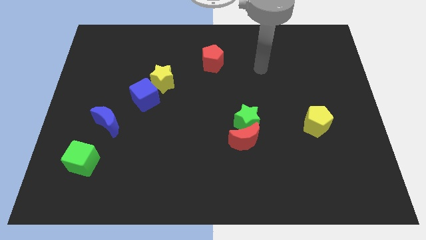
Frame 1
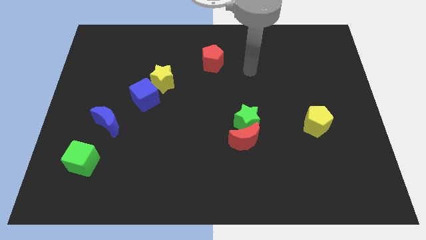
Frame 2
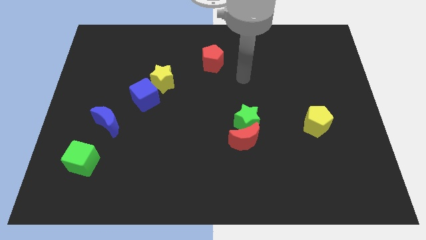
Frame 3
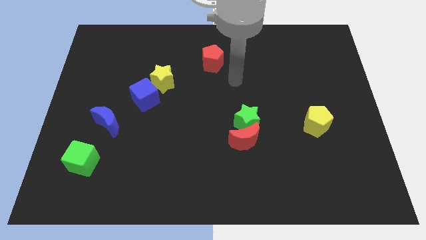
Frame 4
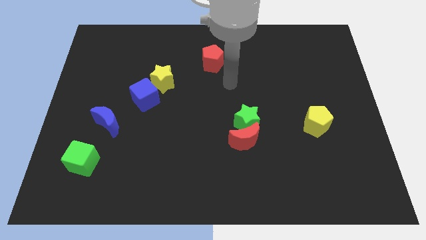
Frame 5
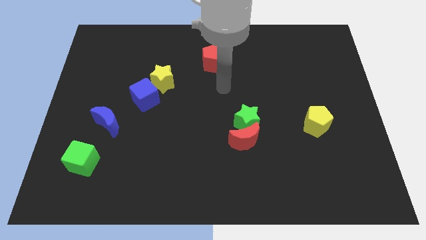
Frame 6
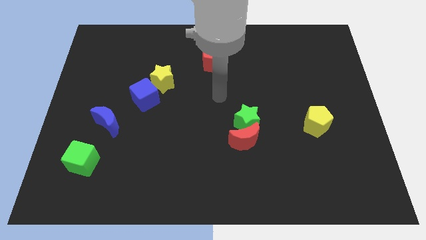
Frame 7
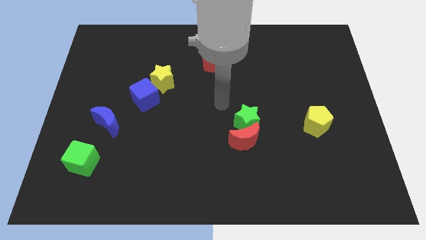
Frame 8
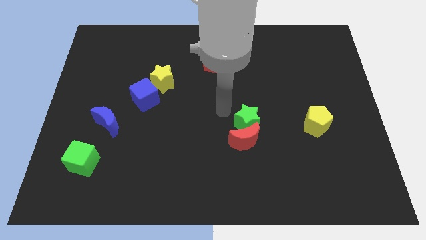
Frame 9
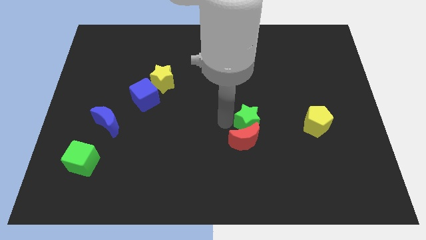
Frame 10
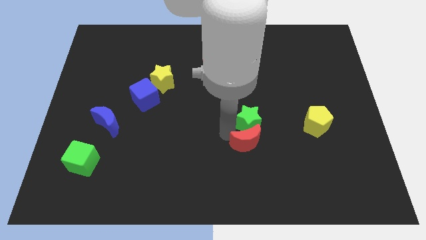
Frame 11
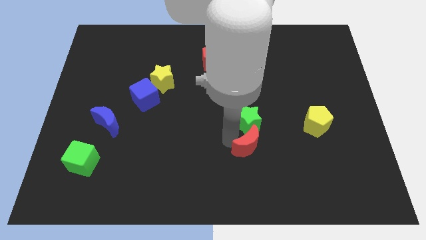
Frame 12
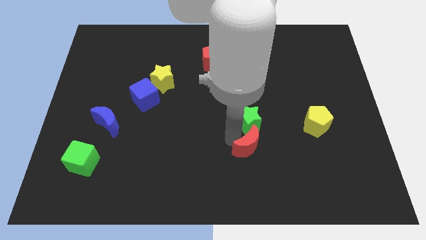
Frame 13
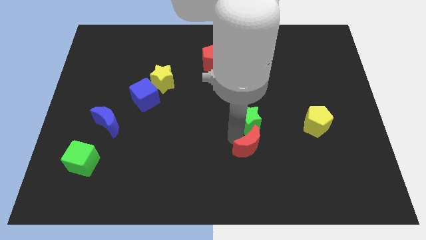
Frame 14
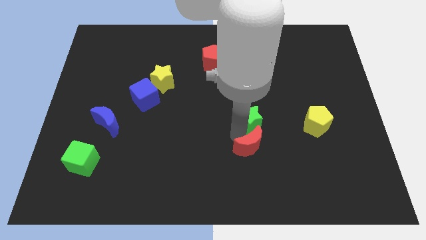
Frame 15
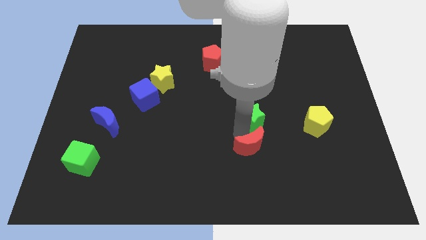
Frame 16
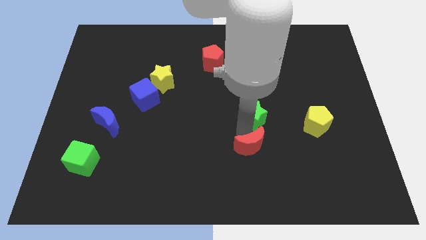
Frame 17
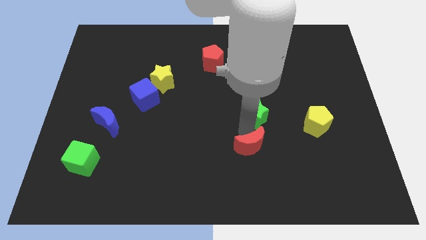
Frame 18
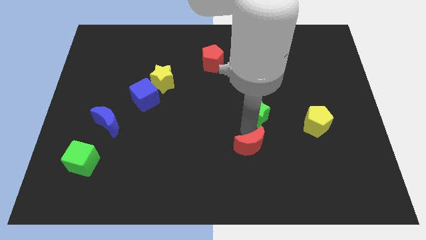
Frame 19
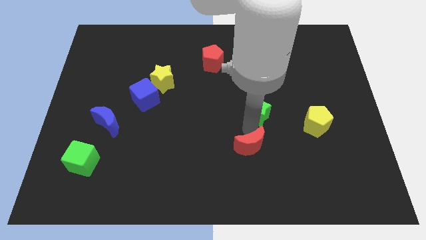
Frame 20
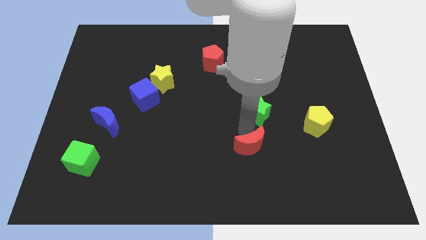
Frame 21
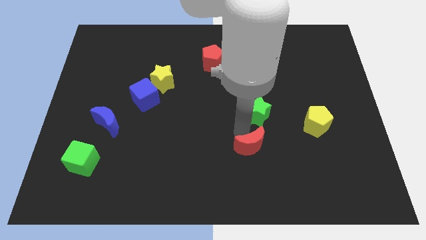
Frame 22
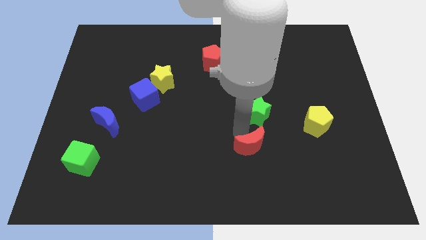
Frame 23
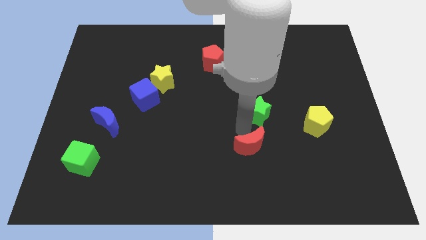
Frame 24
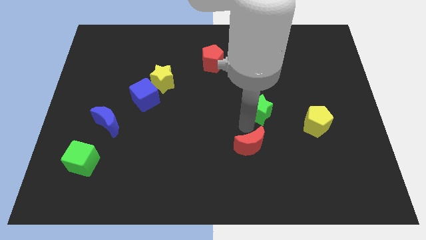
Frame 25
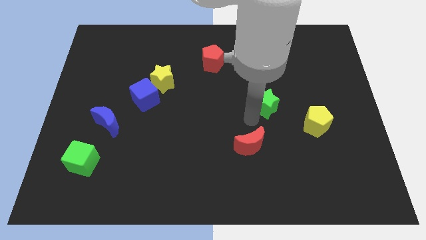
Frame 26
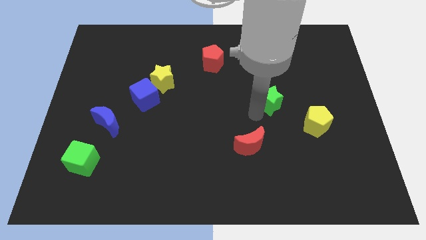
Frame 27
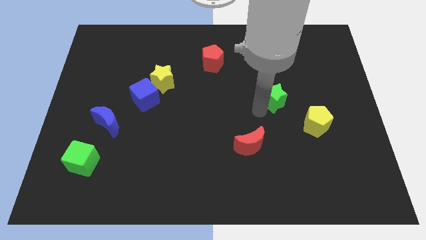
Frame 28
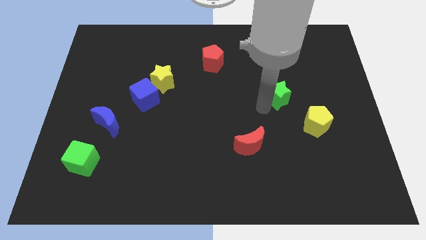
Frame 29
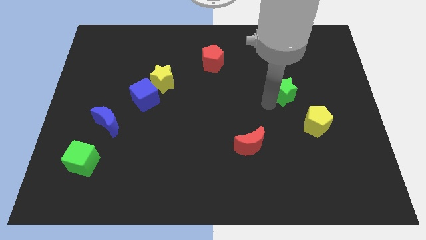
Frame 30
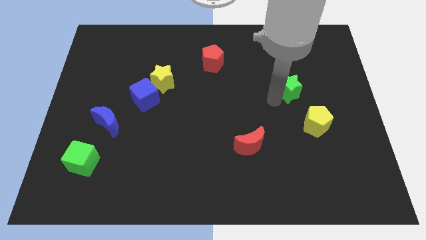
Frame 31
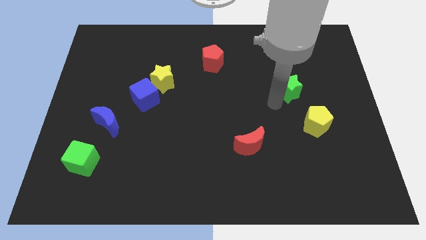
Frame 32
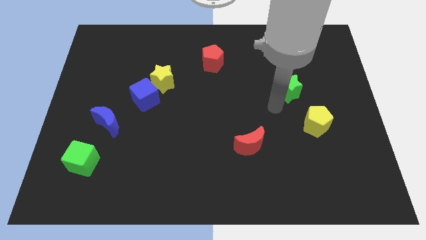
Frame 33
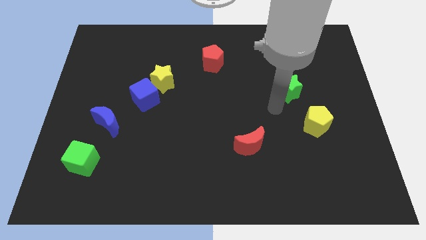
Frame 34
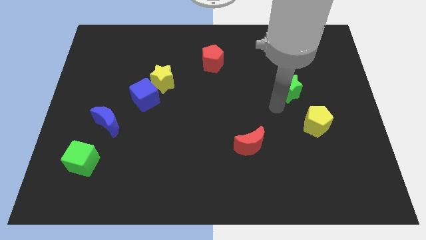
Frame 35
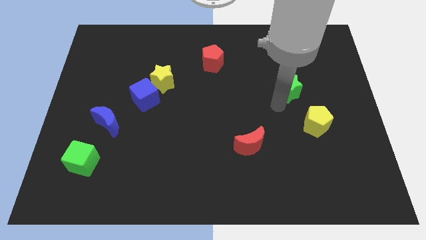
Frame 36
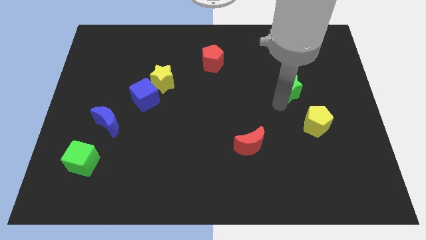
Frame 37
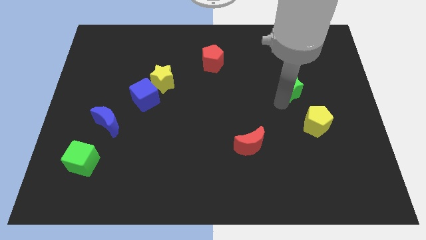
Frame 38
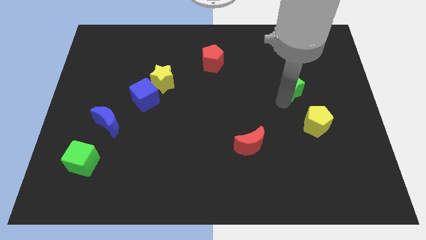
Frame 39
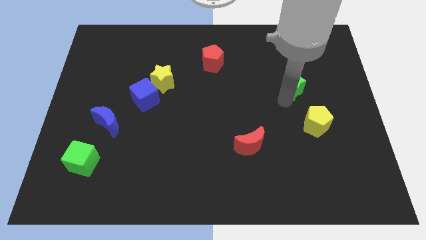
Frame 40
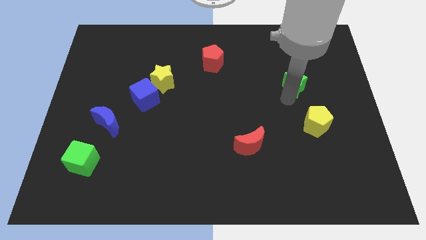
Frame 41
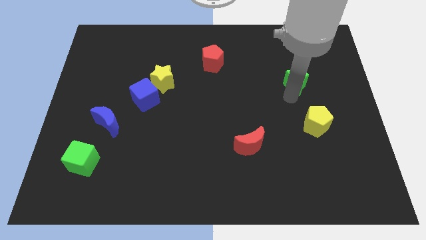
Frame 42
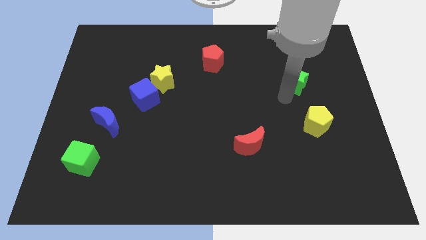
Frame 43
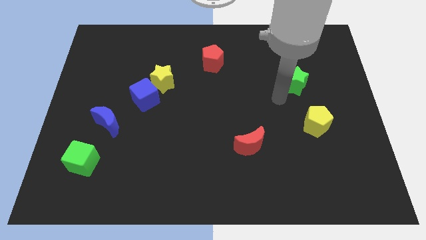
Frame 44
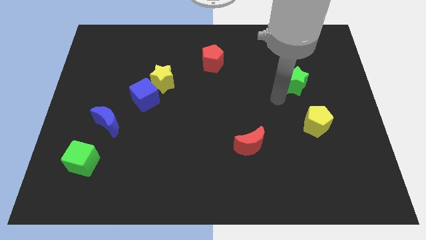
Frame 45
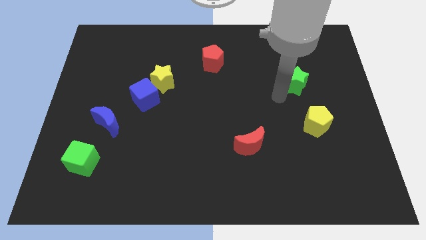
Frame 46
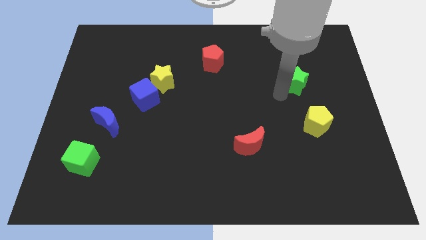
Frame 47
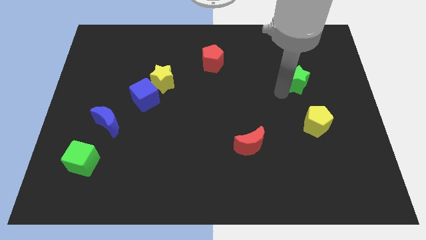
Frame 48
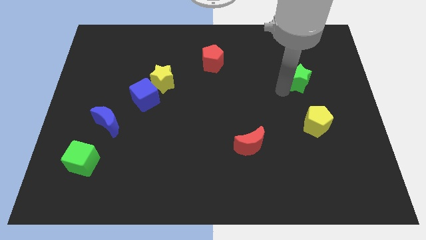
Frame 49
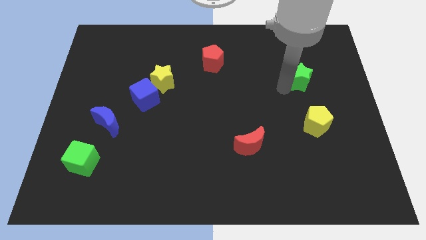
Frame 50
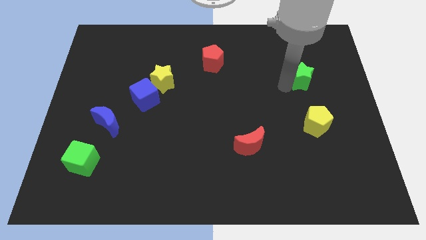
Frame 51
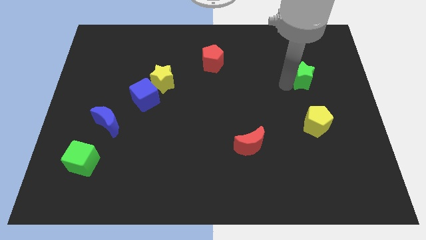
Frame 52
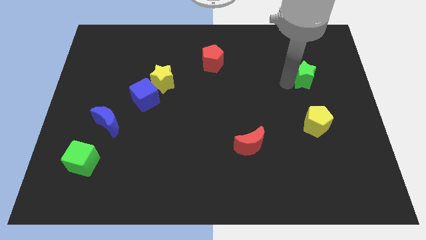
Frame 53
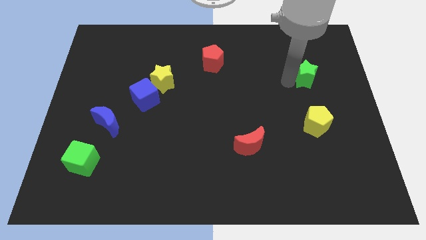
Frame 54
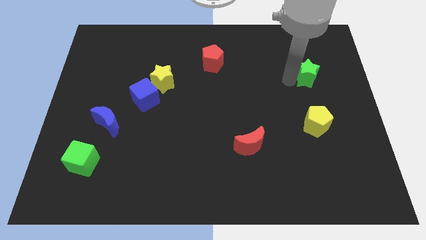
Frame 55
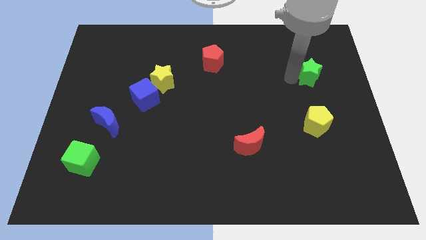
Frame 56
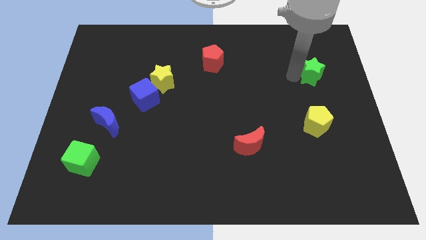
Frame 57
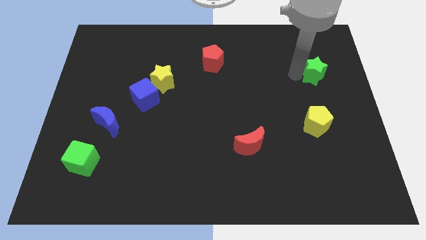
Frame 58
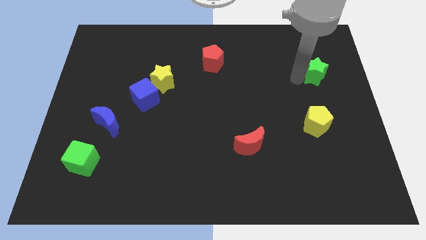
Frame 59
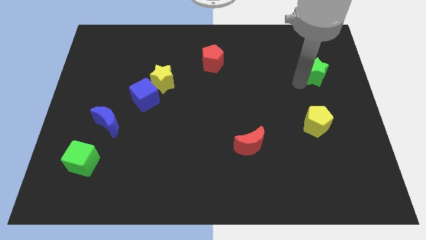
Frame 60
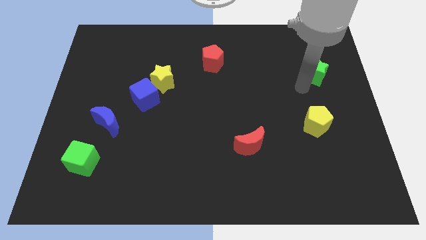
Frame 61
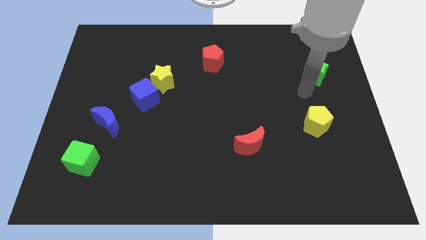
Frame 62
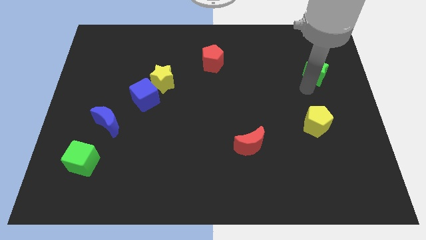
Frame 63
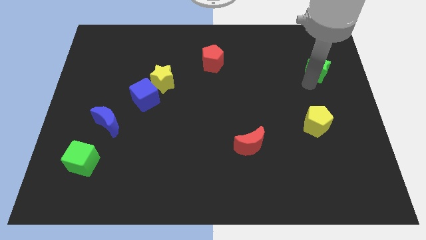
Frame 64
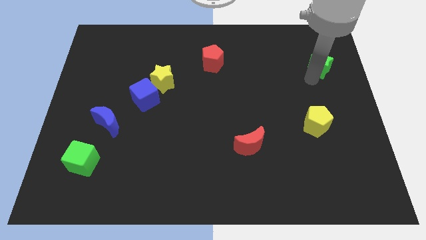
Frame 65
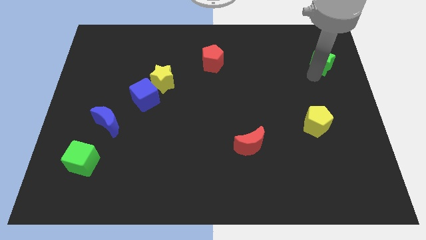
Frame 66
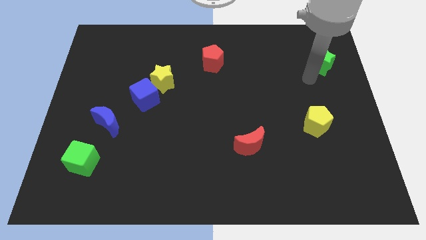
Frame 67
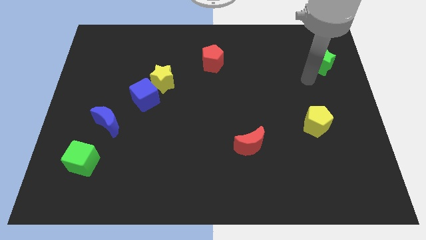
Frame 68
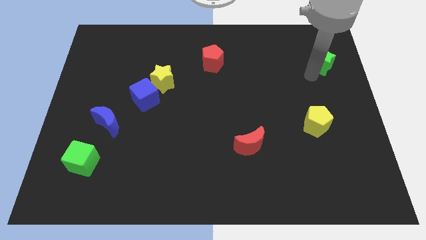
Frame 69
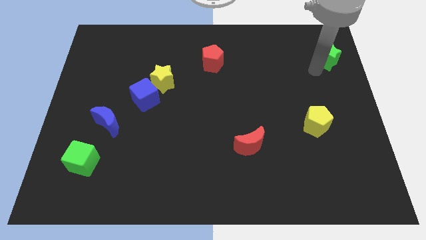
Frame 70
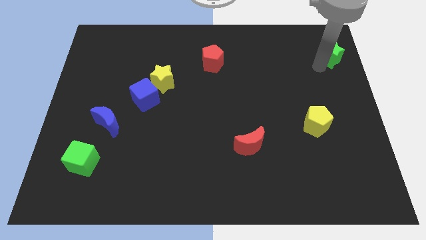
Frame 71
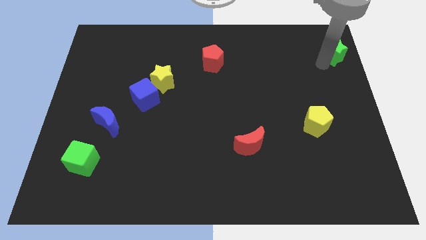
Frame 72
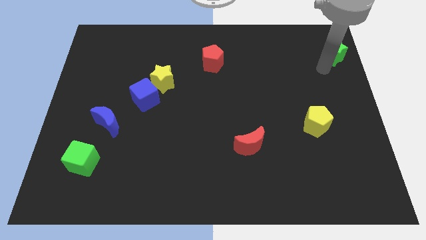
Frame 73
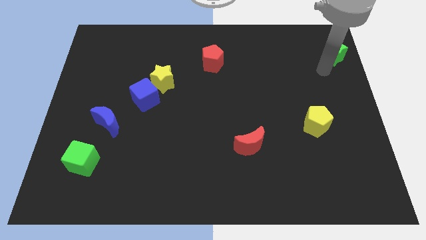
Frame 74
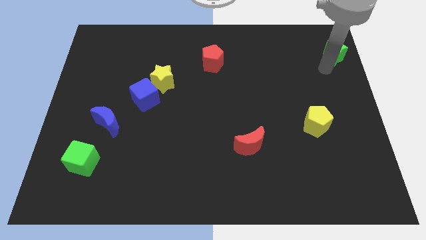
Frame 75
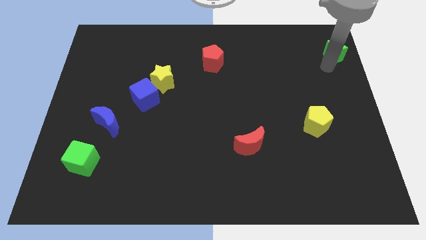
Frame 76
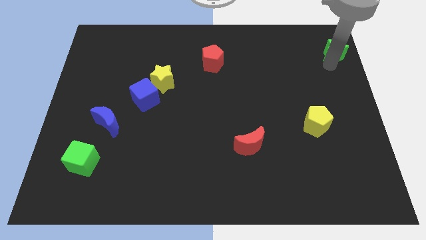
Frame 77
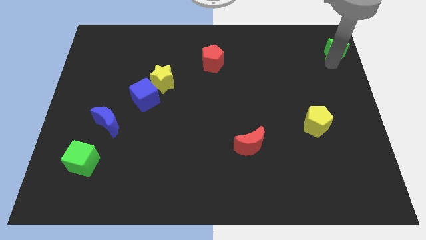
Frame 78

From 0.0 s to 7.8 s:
push the green star to the top right
